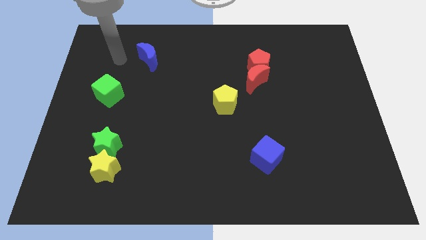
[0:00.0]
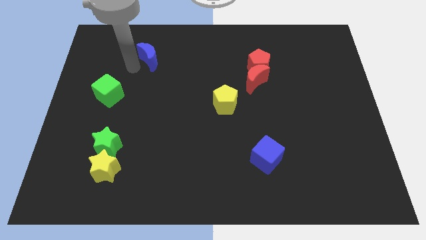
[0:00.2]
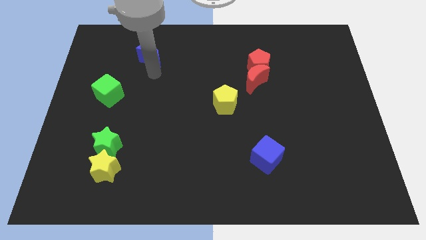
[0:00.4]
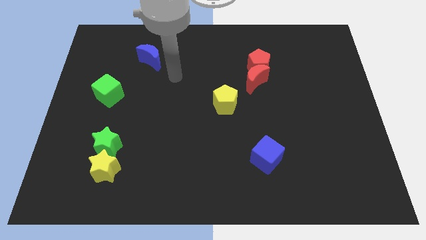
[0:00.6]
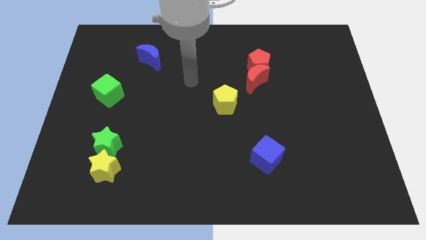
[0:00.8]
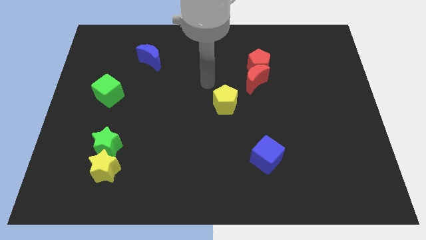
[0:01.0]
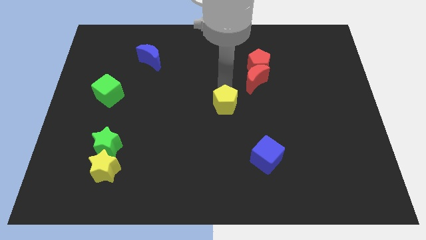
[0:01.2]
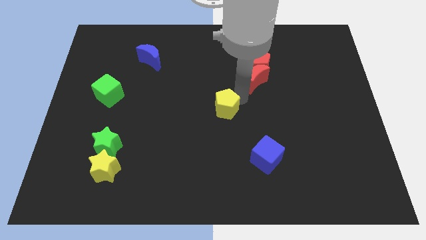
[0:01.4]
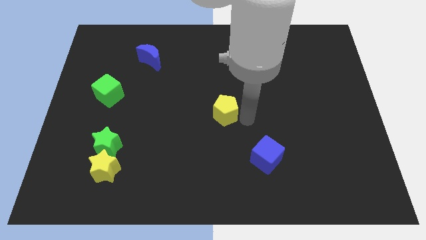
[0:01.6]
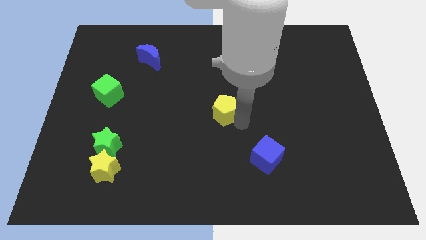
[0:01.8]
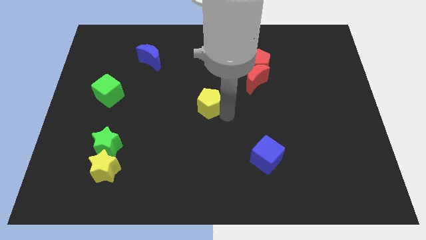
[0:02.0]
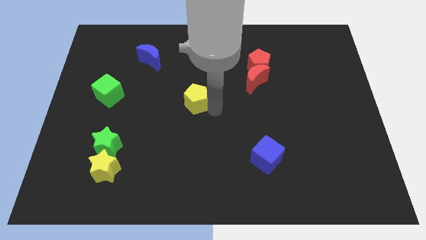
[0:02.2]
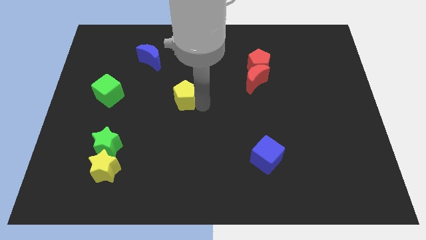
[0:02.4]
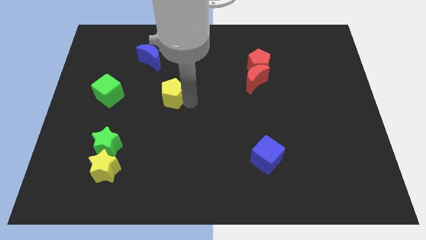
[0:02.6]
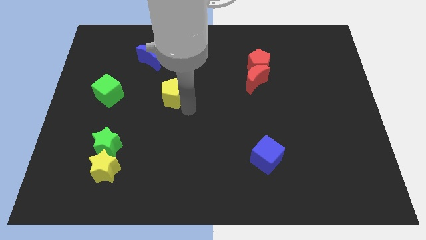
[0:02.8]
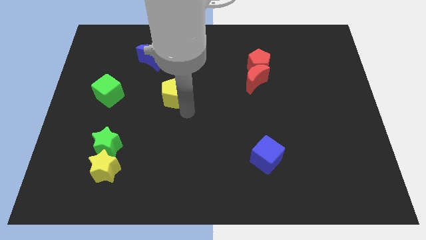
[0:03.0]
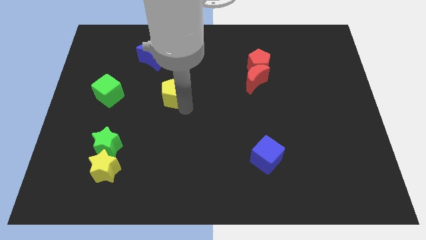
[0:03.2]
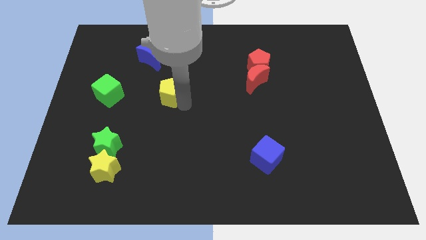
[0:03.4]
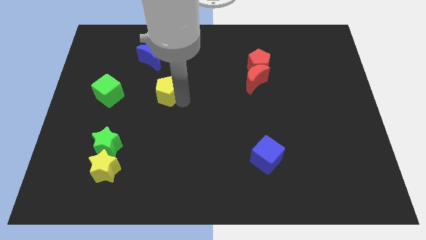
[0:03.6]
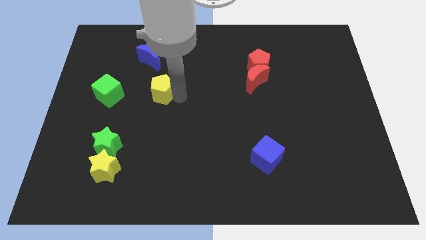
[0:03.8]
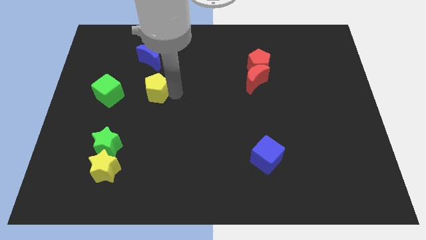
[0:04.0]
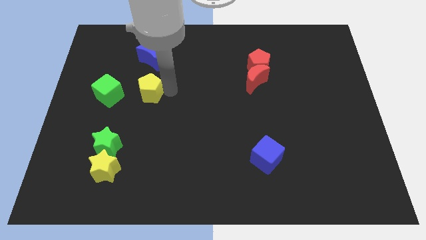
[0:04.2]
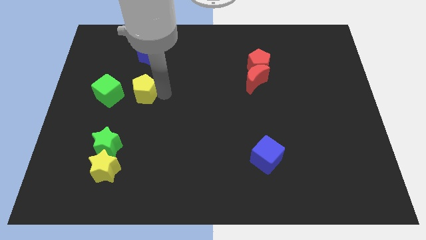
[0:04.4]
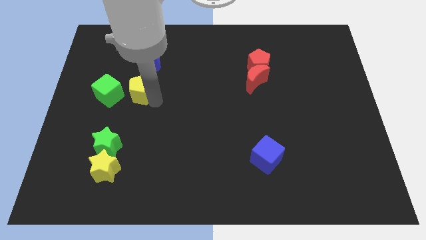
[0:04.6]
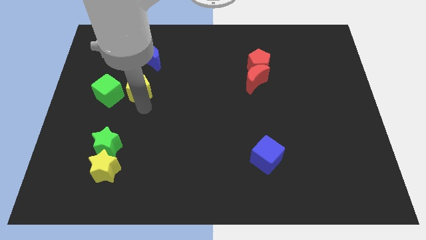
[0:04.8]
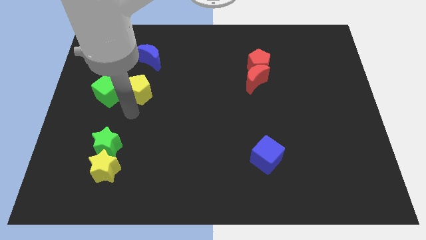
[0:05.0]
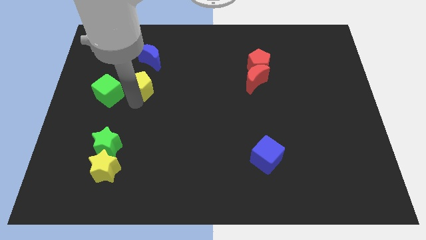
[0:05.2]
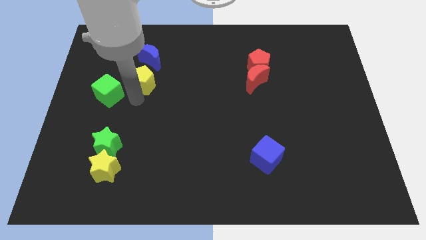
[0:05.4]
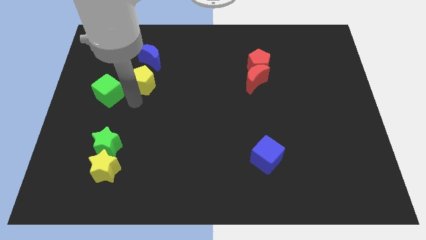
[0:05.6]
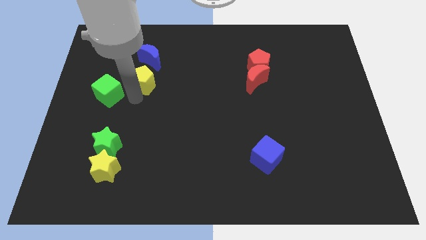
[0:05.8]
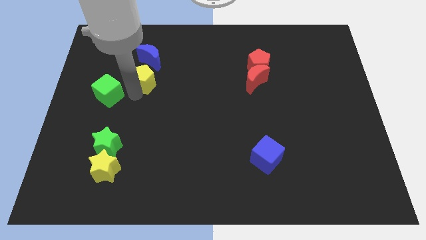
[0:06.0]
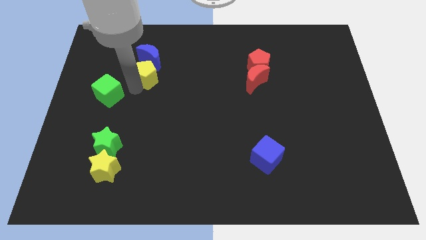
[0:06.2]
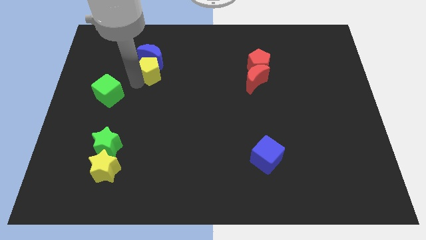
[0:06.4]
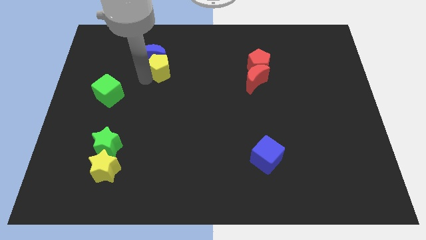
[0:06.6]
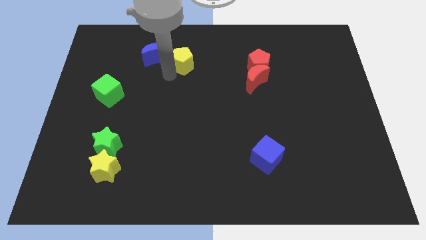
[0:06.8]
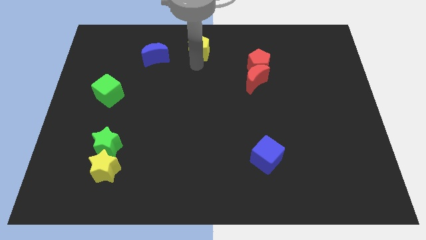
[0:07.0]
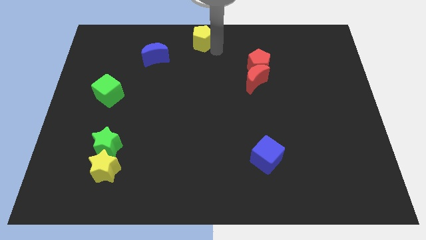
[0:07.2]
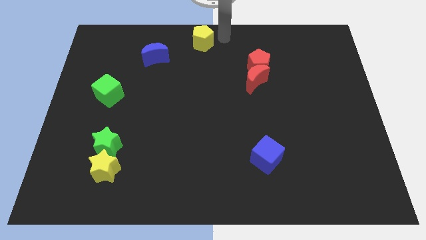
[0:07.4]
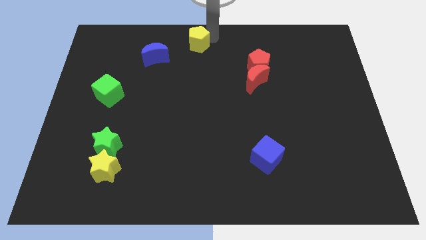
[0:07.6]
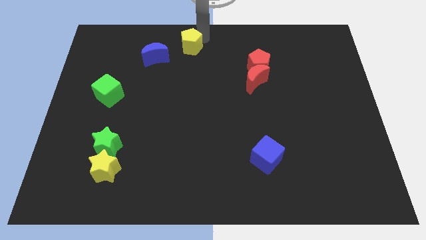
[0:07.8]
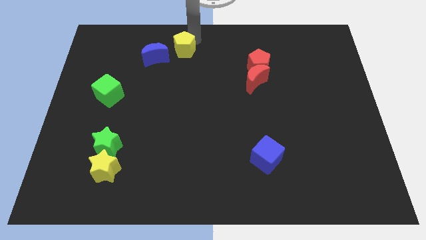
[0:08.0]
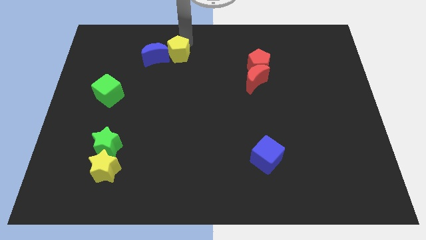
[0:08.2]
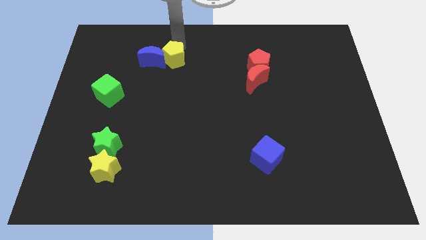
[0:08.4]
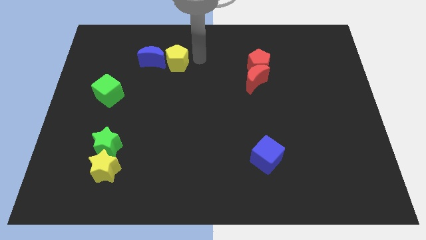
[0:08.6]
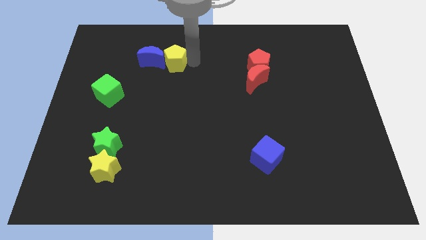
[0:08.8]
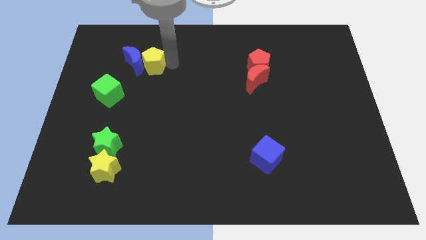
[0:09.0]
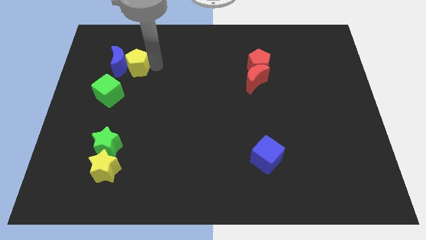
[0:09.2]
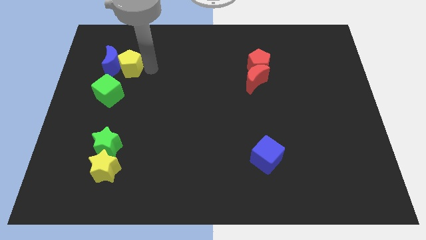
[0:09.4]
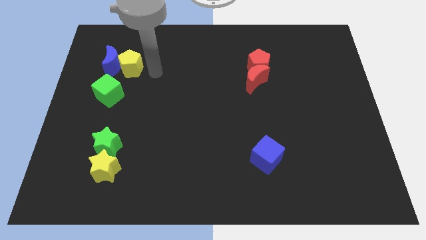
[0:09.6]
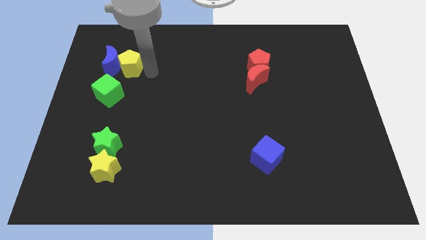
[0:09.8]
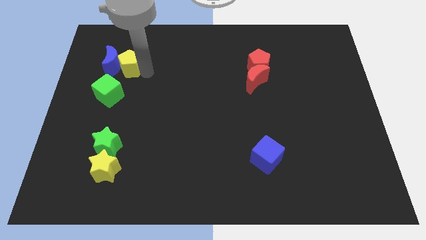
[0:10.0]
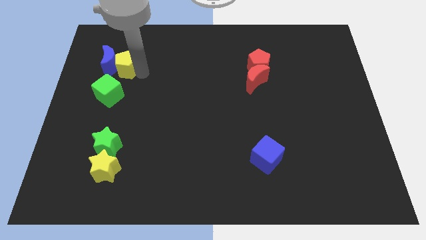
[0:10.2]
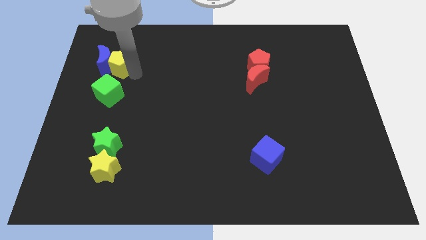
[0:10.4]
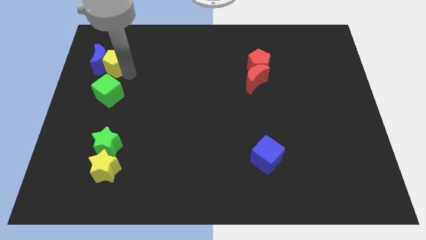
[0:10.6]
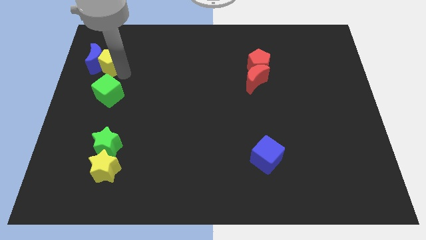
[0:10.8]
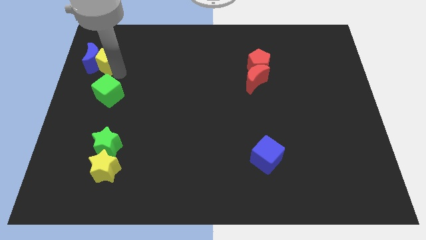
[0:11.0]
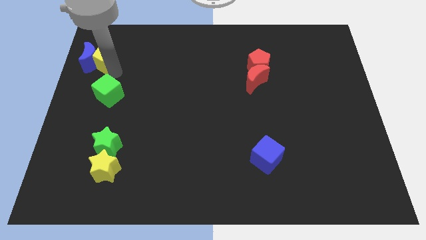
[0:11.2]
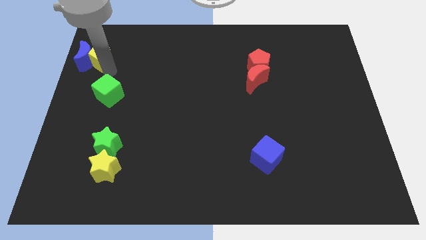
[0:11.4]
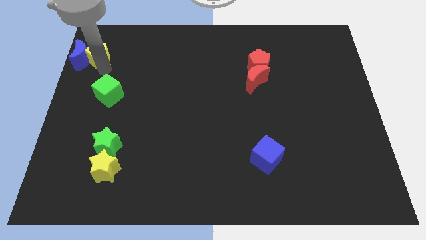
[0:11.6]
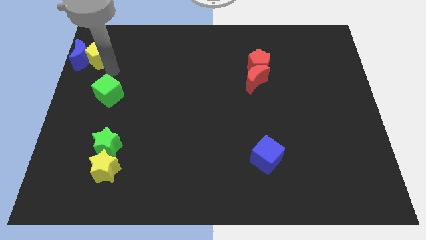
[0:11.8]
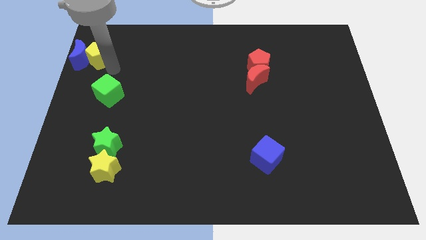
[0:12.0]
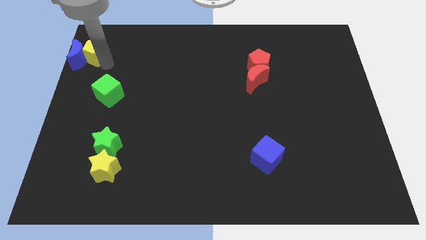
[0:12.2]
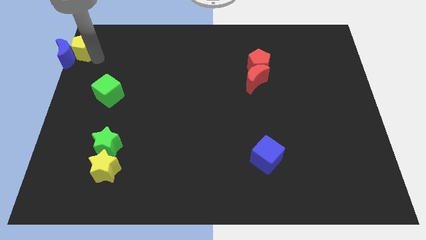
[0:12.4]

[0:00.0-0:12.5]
put the yellow pentagon to the top left corner
